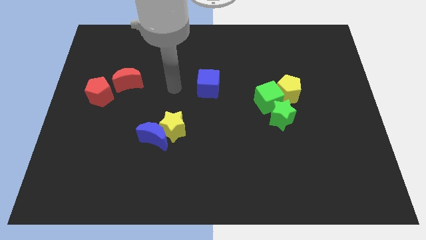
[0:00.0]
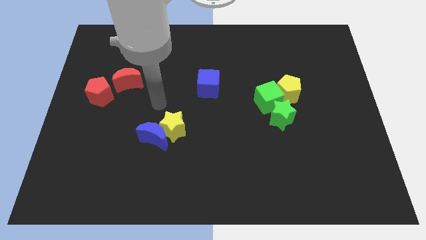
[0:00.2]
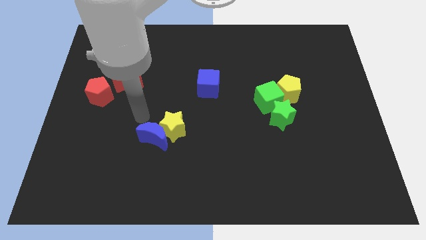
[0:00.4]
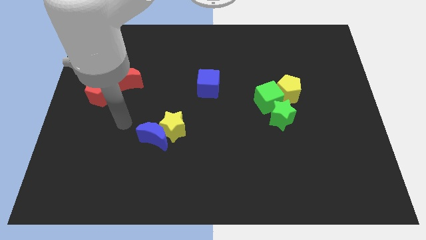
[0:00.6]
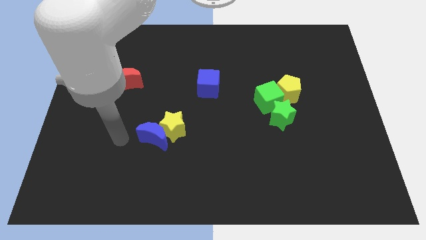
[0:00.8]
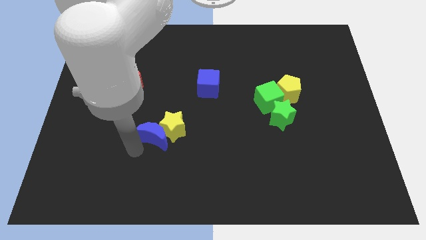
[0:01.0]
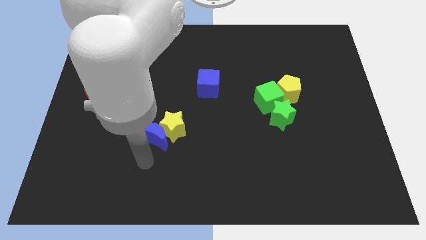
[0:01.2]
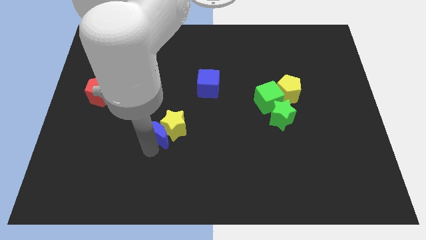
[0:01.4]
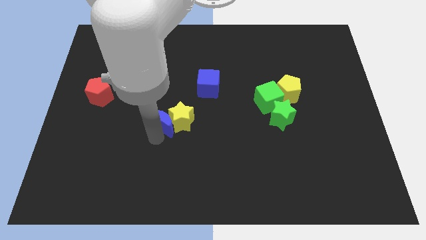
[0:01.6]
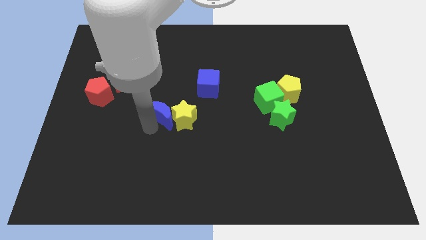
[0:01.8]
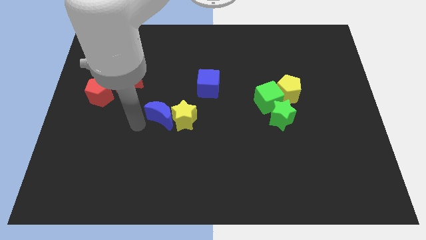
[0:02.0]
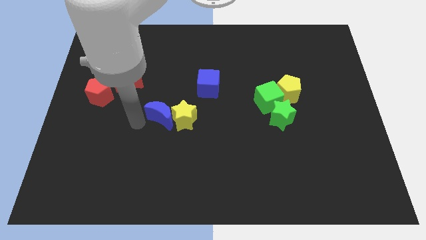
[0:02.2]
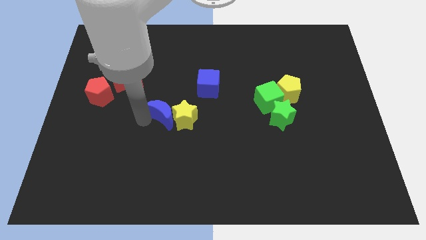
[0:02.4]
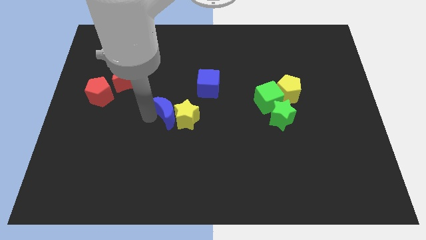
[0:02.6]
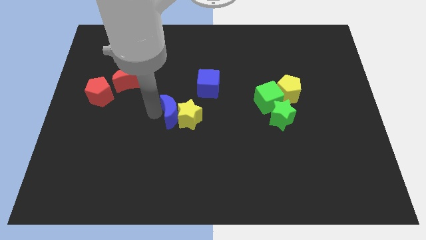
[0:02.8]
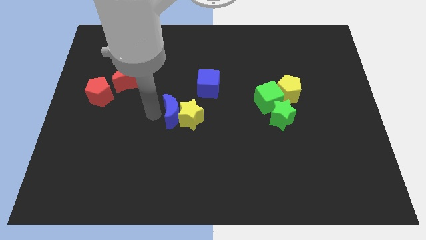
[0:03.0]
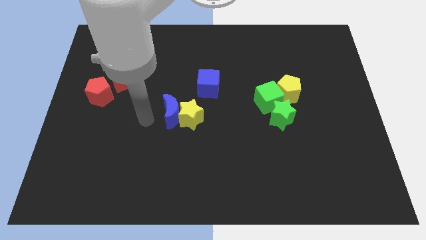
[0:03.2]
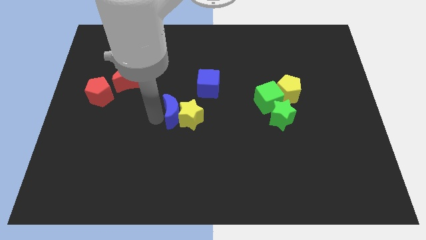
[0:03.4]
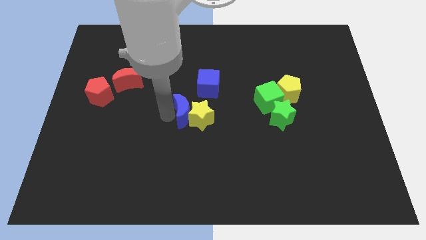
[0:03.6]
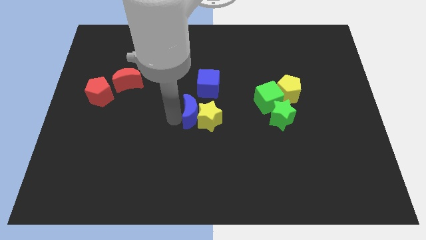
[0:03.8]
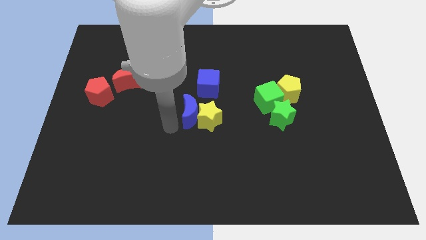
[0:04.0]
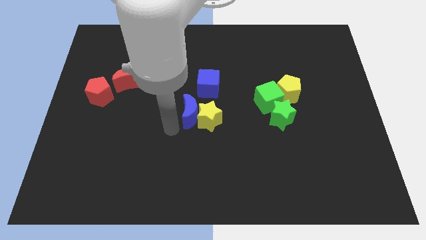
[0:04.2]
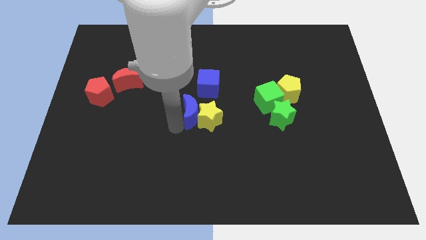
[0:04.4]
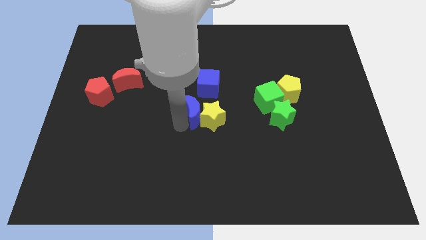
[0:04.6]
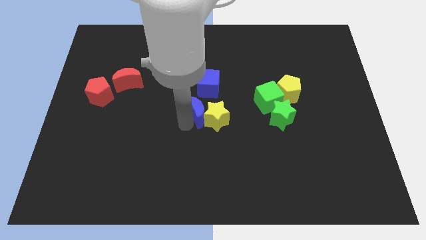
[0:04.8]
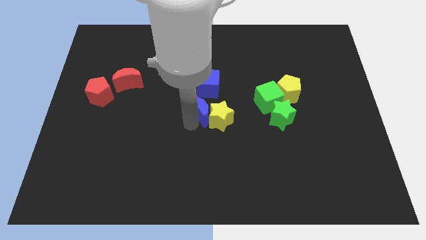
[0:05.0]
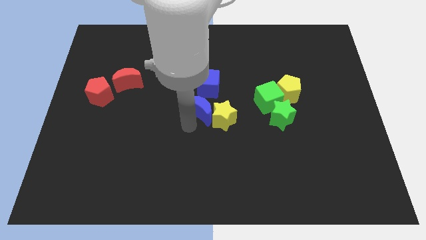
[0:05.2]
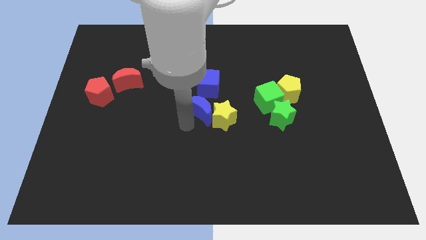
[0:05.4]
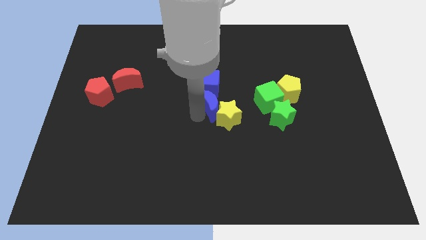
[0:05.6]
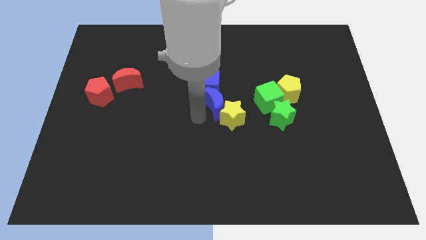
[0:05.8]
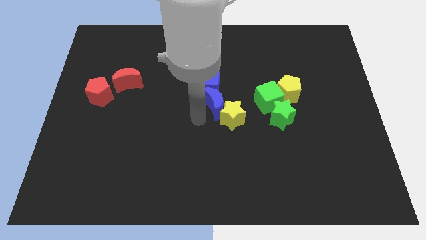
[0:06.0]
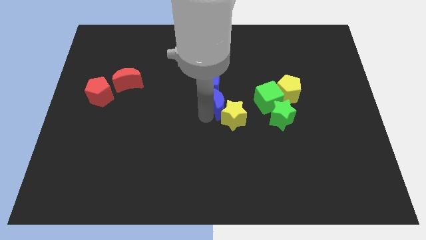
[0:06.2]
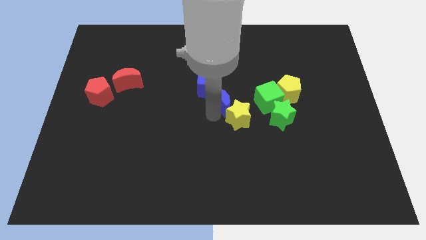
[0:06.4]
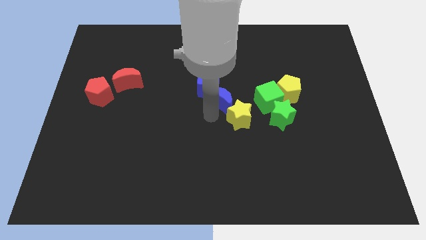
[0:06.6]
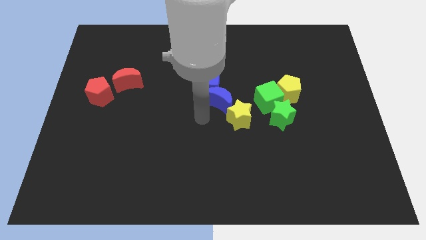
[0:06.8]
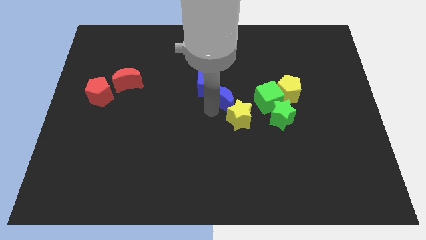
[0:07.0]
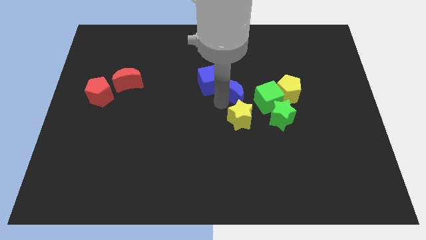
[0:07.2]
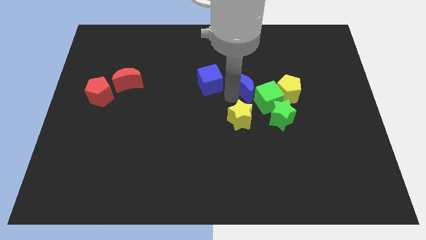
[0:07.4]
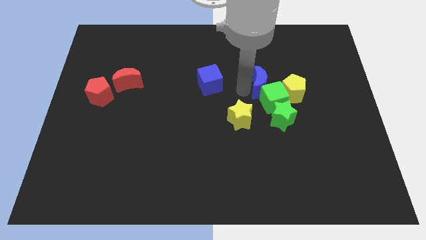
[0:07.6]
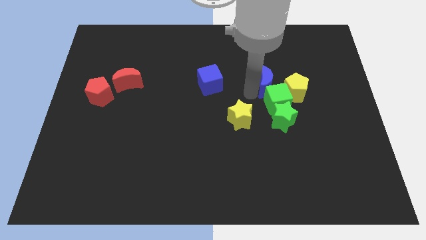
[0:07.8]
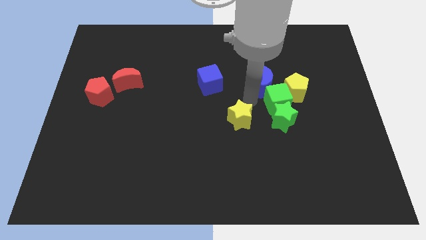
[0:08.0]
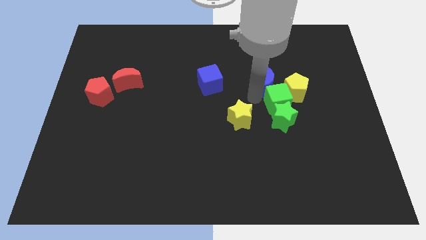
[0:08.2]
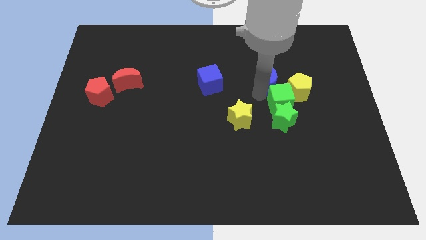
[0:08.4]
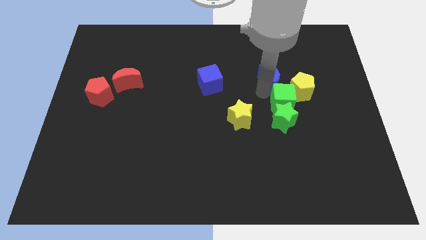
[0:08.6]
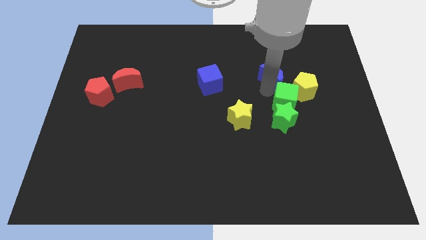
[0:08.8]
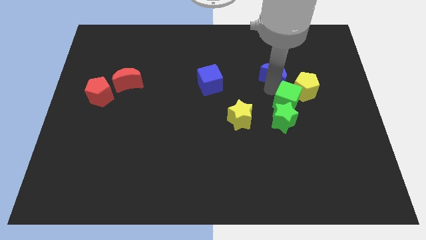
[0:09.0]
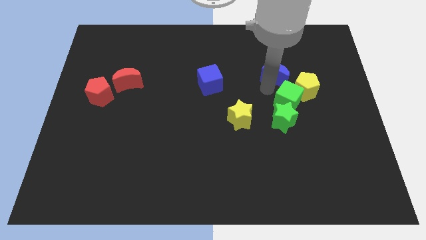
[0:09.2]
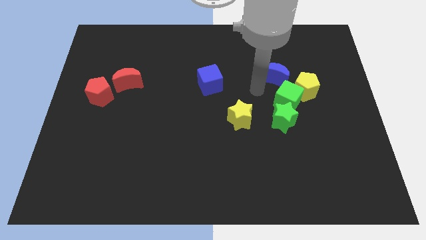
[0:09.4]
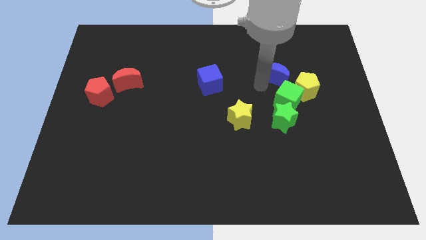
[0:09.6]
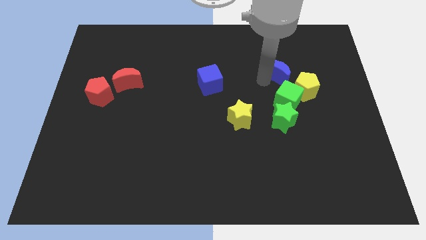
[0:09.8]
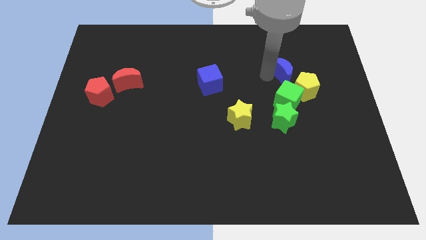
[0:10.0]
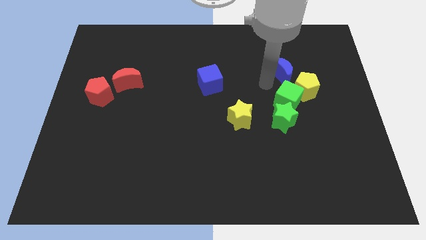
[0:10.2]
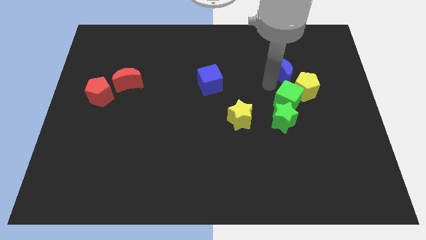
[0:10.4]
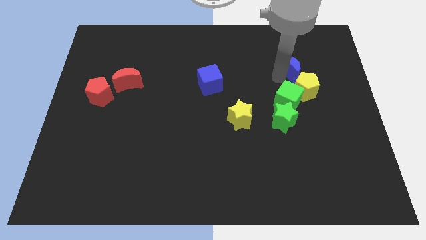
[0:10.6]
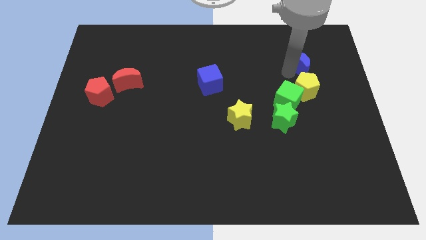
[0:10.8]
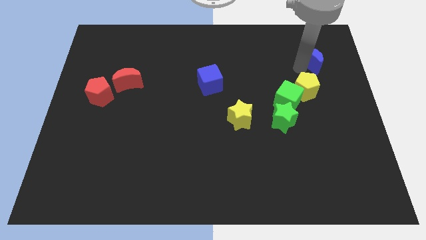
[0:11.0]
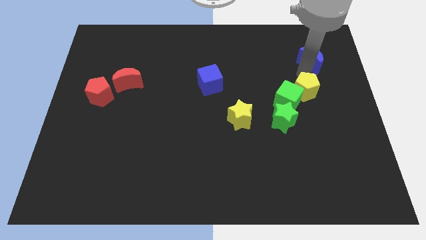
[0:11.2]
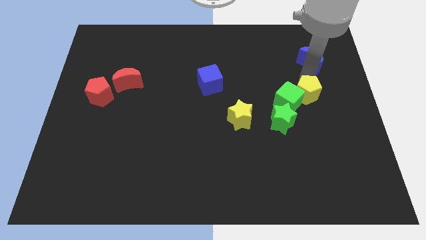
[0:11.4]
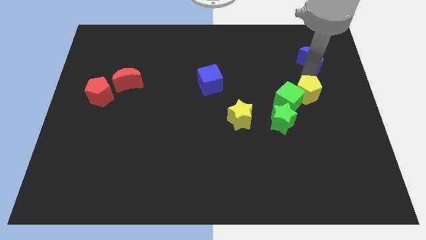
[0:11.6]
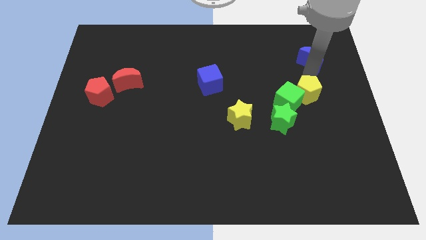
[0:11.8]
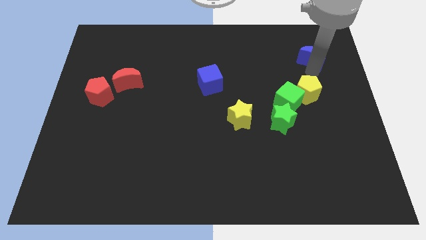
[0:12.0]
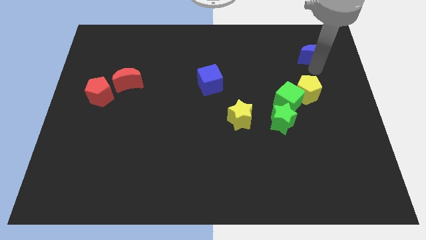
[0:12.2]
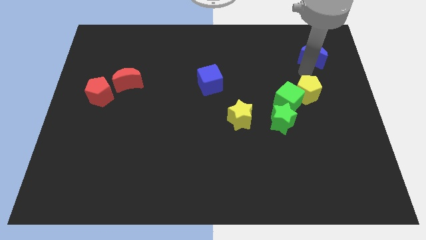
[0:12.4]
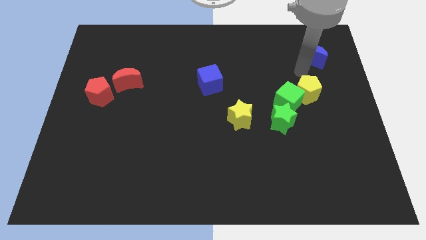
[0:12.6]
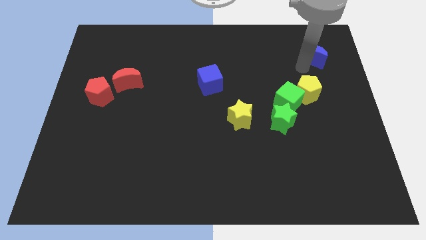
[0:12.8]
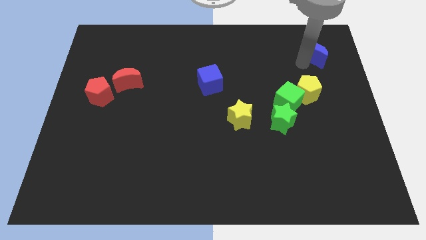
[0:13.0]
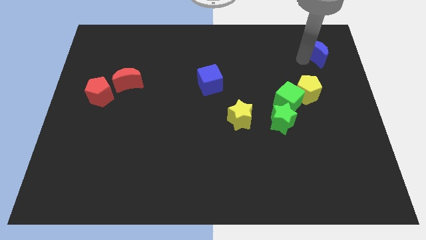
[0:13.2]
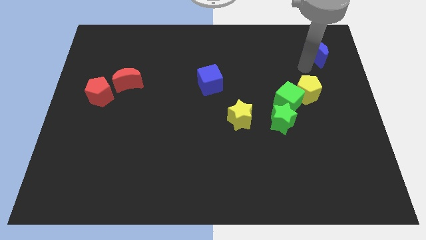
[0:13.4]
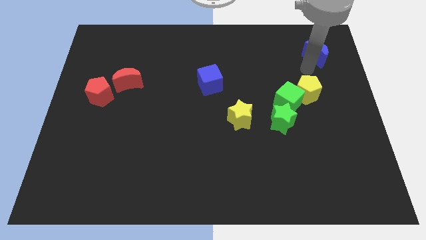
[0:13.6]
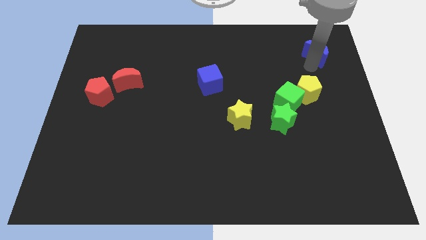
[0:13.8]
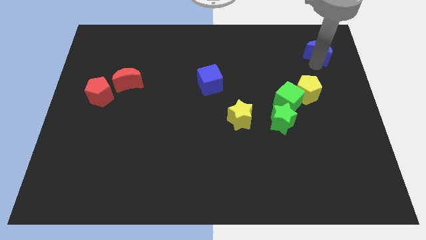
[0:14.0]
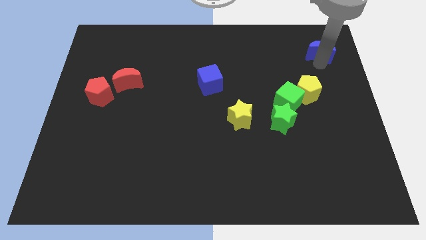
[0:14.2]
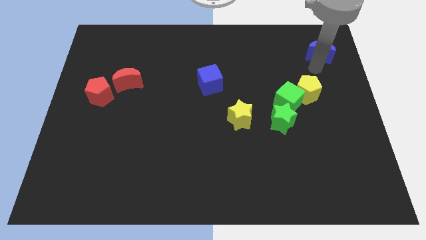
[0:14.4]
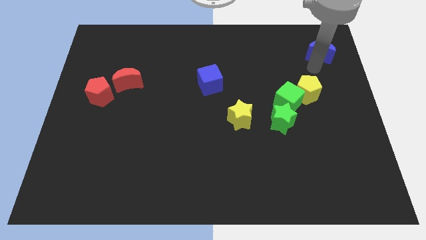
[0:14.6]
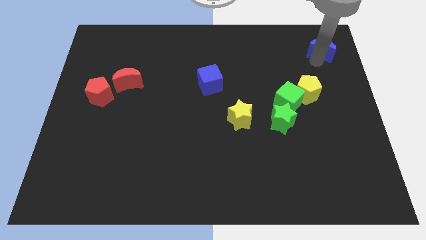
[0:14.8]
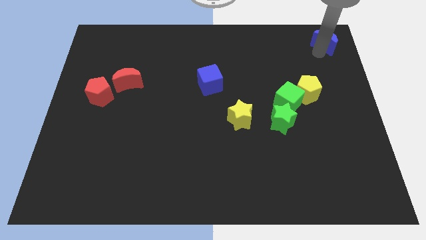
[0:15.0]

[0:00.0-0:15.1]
push the blue moon to the top right of the board
